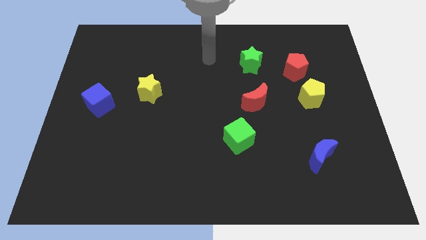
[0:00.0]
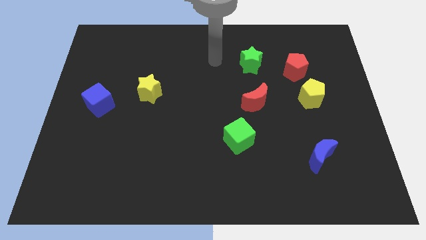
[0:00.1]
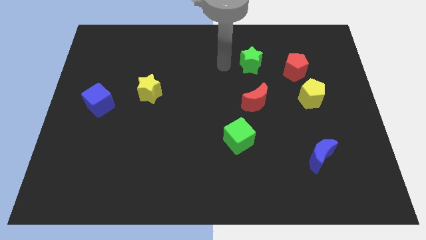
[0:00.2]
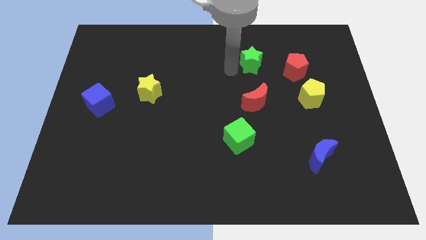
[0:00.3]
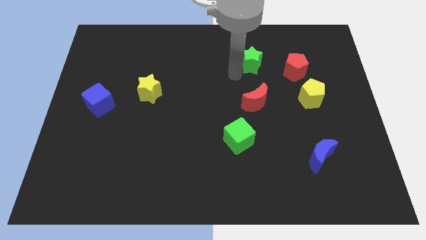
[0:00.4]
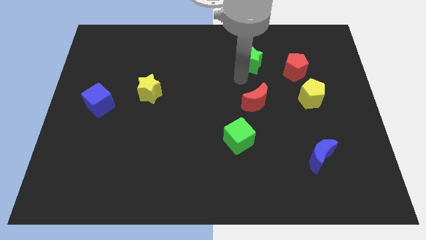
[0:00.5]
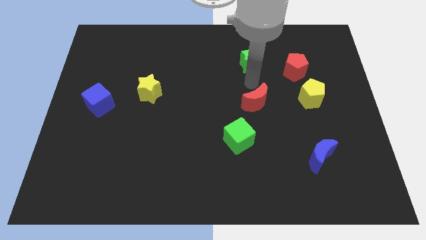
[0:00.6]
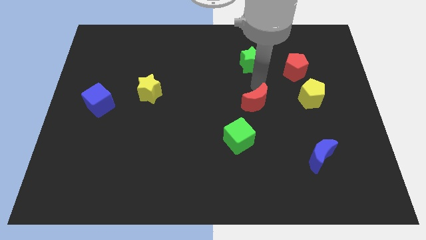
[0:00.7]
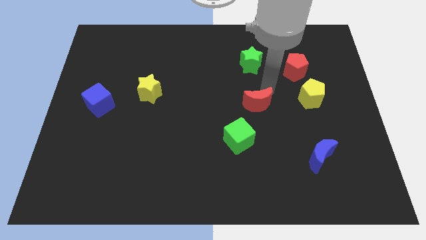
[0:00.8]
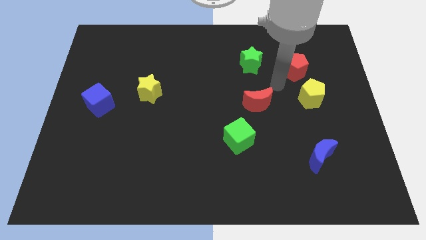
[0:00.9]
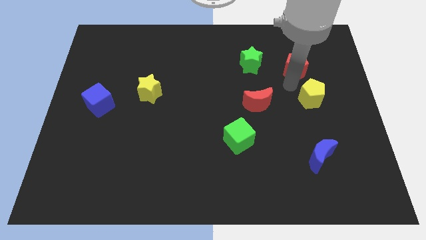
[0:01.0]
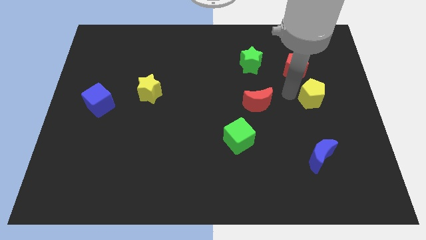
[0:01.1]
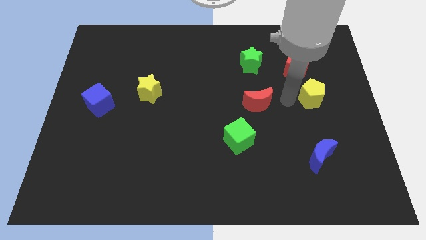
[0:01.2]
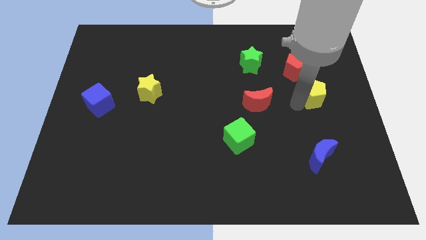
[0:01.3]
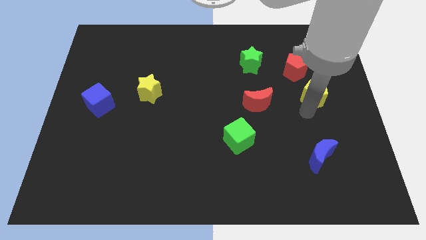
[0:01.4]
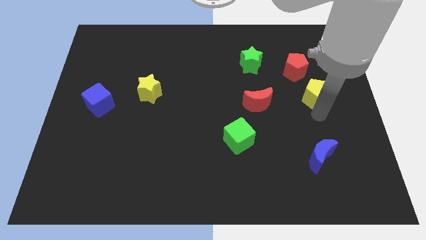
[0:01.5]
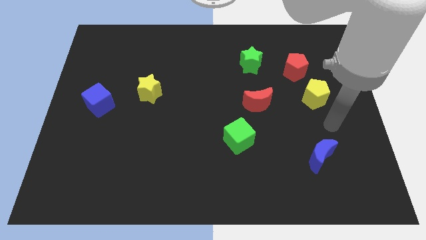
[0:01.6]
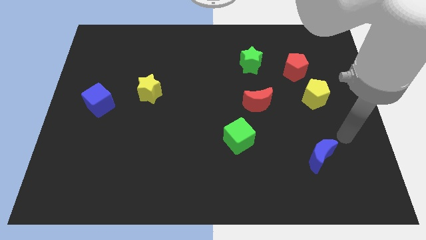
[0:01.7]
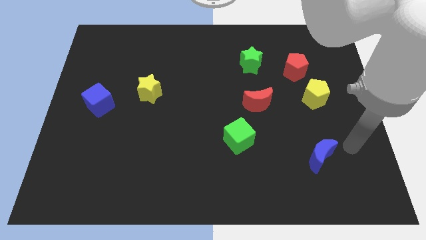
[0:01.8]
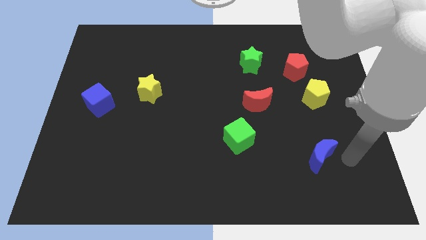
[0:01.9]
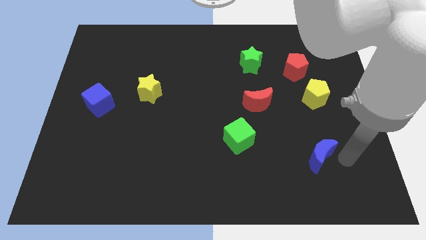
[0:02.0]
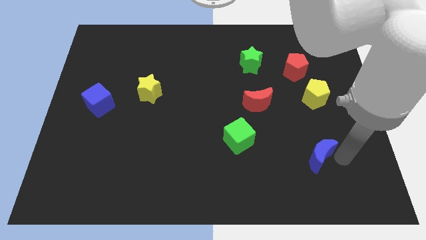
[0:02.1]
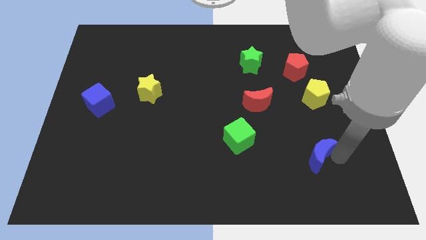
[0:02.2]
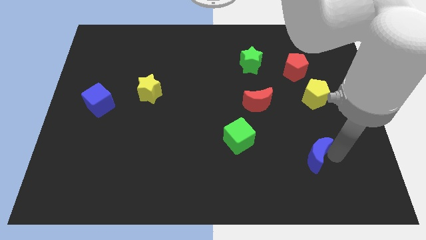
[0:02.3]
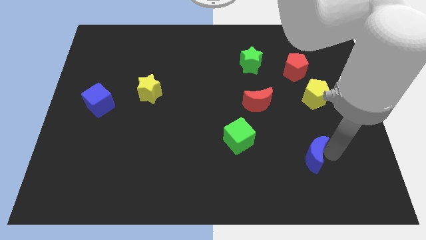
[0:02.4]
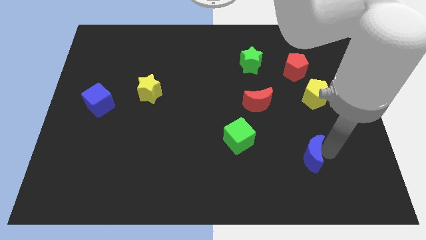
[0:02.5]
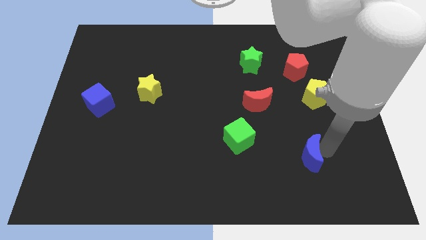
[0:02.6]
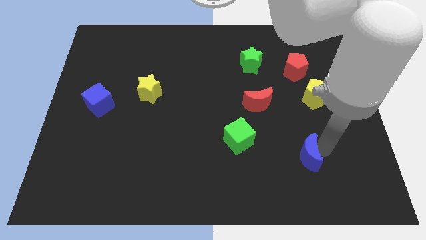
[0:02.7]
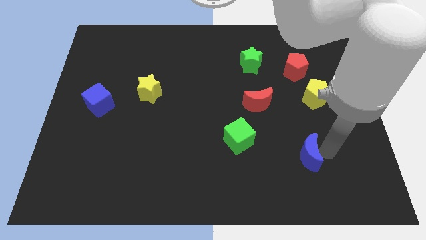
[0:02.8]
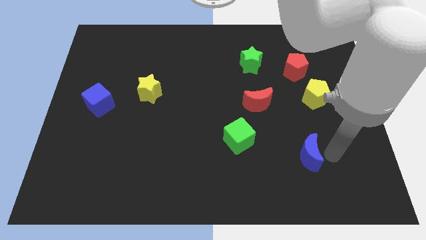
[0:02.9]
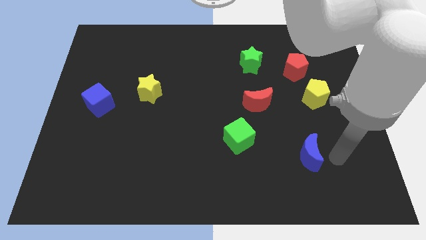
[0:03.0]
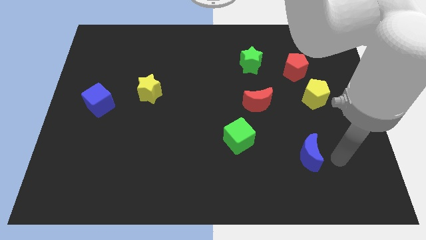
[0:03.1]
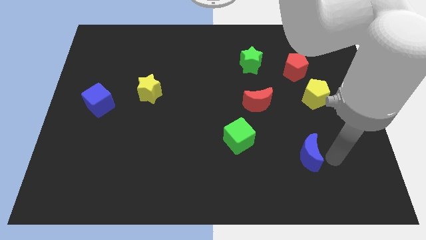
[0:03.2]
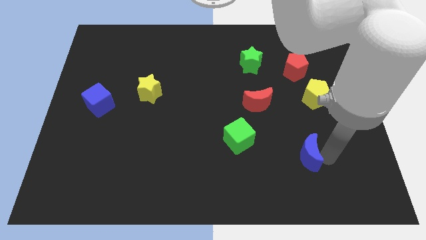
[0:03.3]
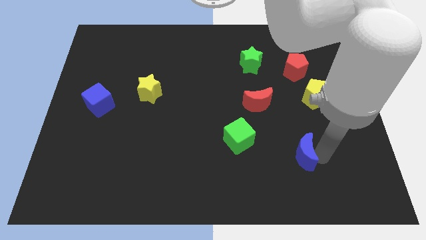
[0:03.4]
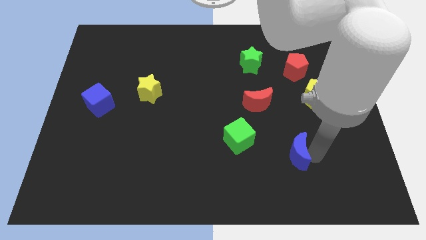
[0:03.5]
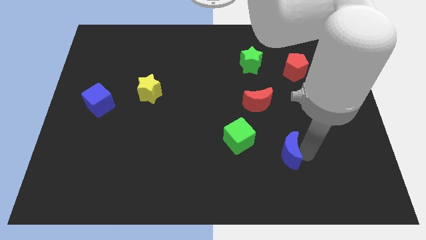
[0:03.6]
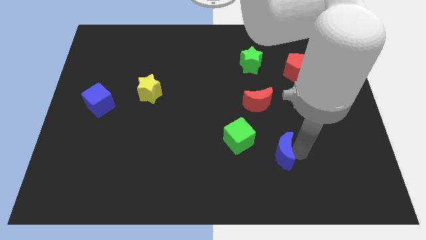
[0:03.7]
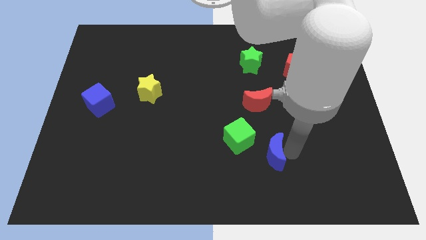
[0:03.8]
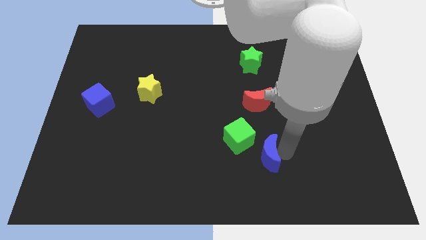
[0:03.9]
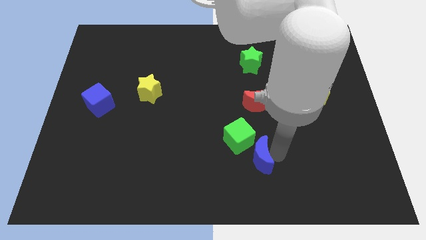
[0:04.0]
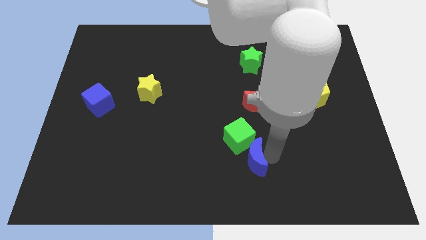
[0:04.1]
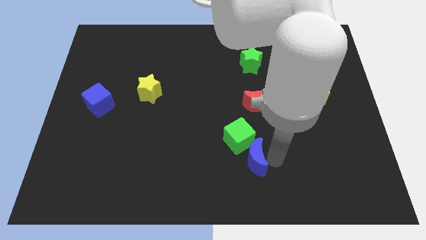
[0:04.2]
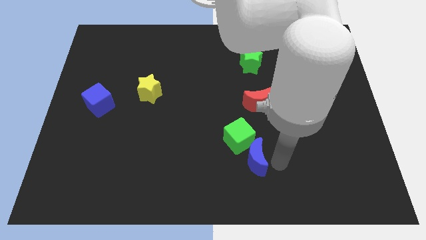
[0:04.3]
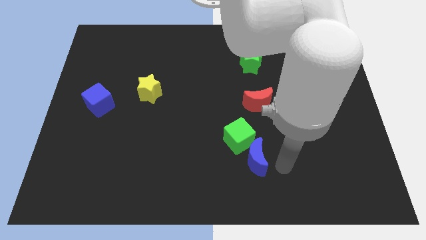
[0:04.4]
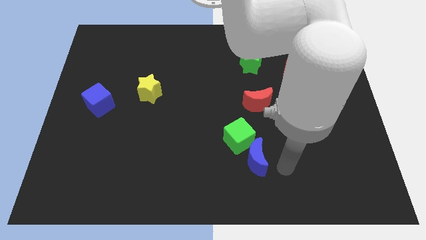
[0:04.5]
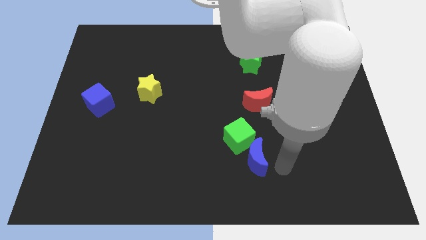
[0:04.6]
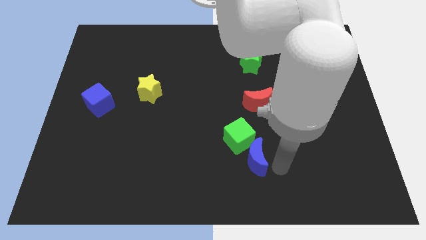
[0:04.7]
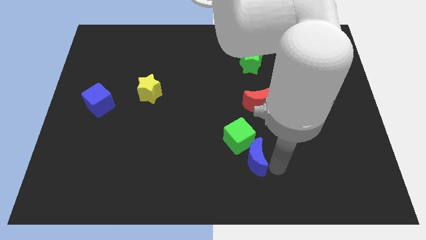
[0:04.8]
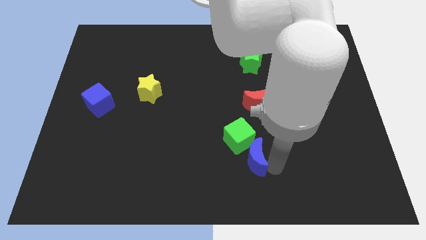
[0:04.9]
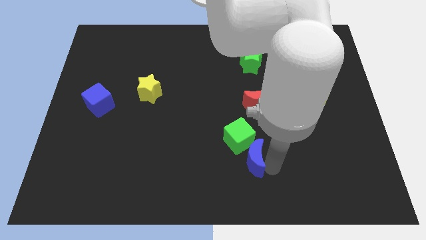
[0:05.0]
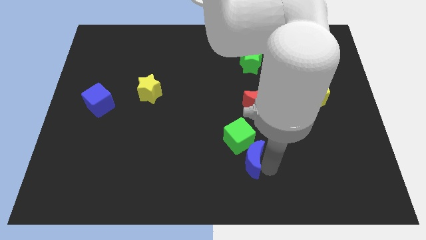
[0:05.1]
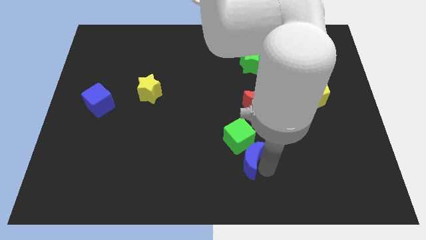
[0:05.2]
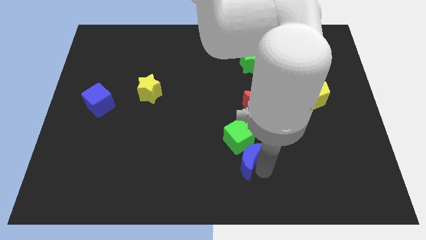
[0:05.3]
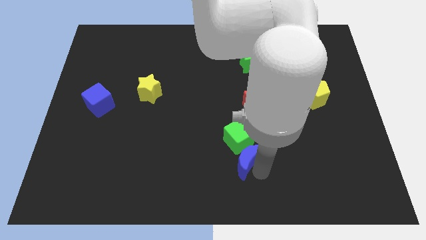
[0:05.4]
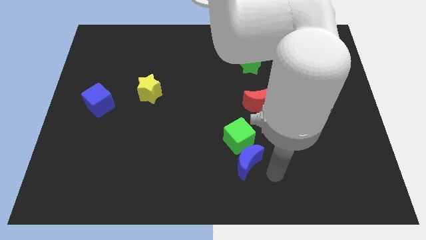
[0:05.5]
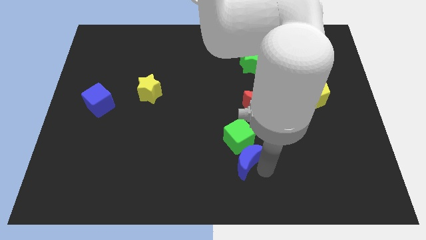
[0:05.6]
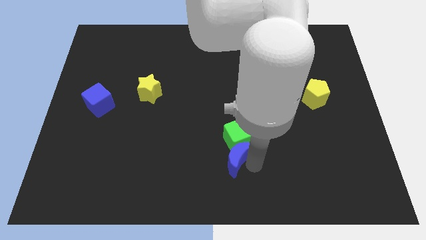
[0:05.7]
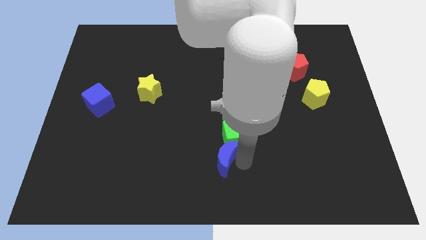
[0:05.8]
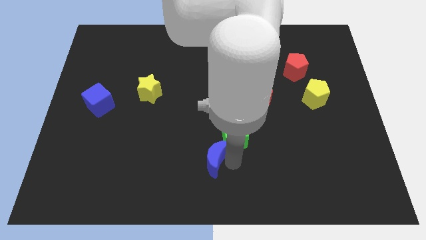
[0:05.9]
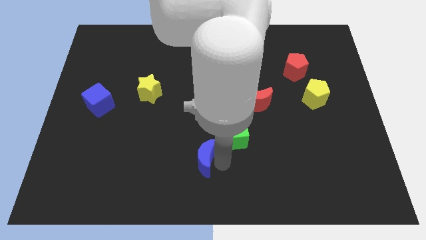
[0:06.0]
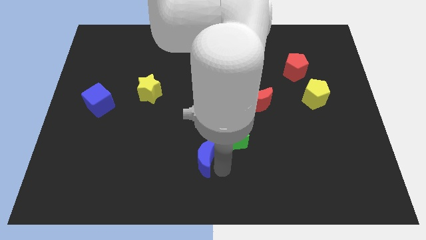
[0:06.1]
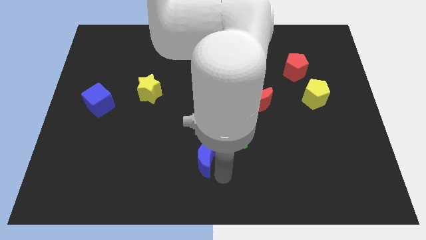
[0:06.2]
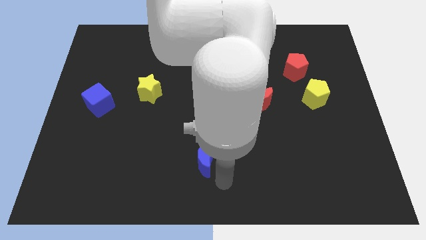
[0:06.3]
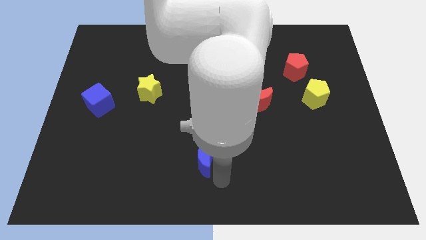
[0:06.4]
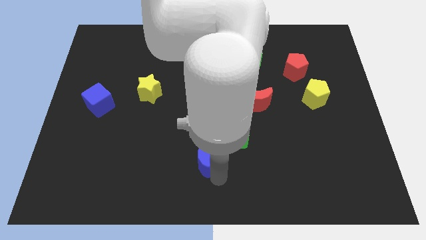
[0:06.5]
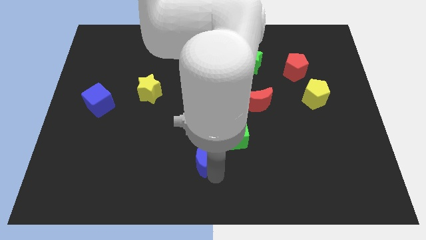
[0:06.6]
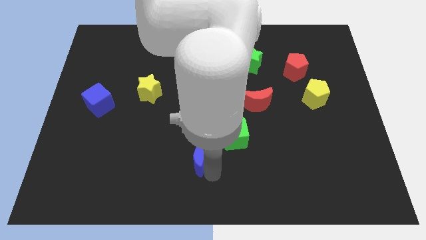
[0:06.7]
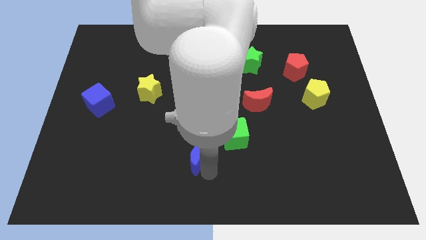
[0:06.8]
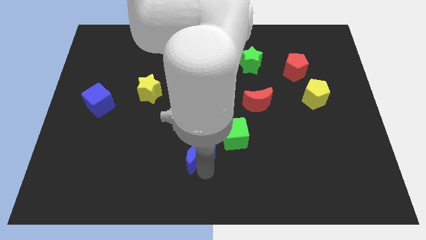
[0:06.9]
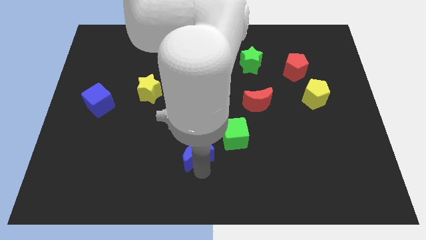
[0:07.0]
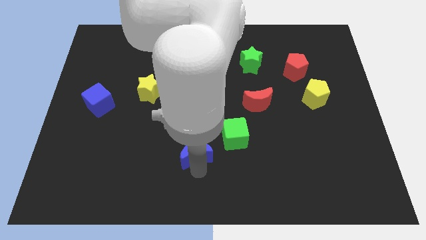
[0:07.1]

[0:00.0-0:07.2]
push the blue moon left of the green cube
